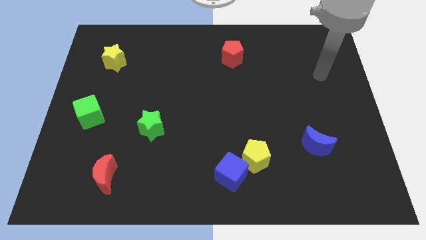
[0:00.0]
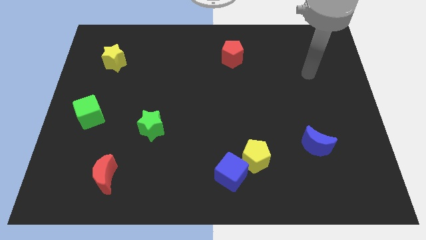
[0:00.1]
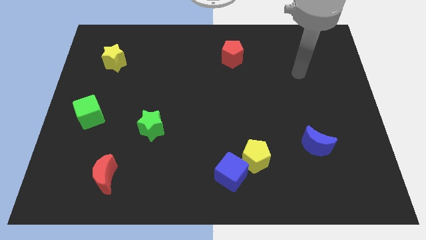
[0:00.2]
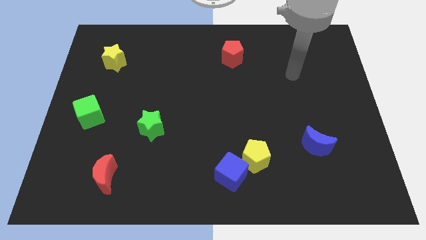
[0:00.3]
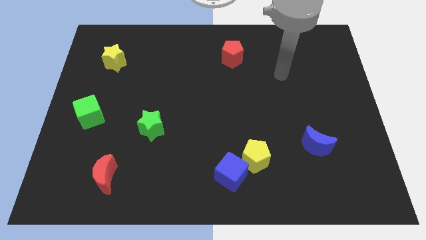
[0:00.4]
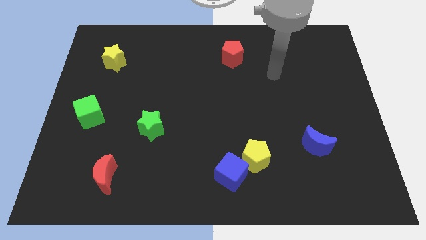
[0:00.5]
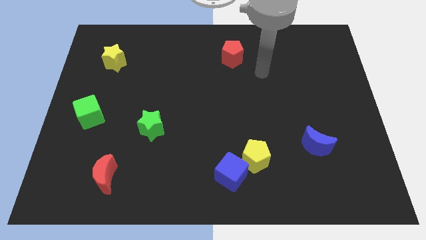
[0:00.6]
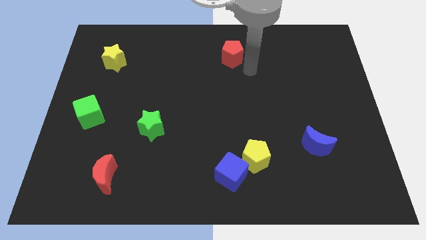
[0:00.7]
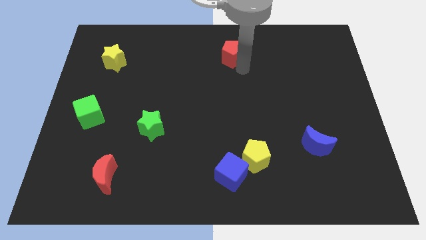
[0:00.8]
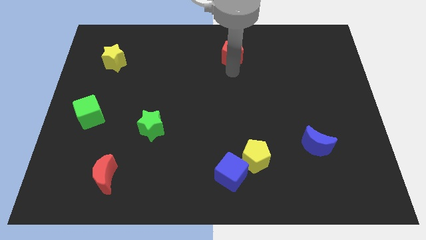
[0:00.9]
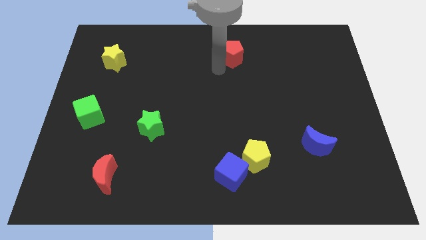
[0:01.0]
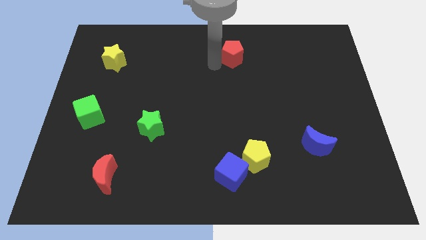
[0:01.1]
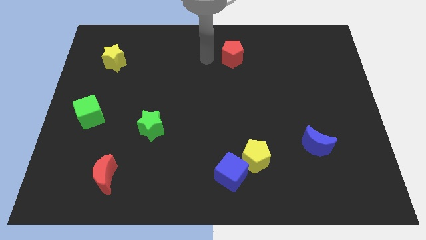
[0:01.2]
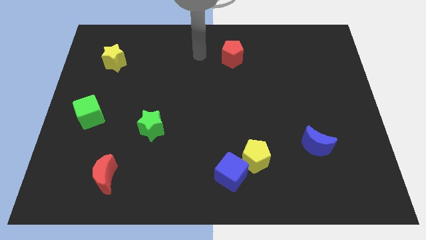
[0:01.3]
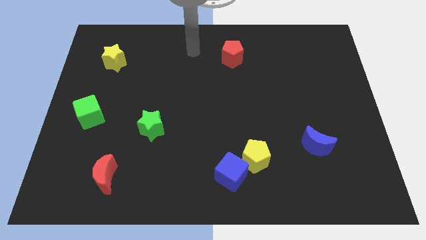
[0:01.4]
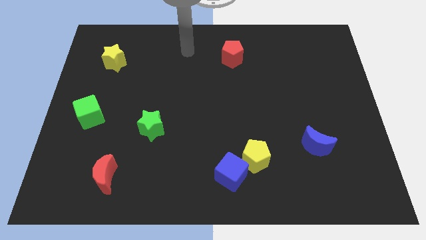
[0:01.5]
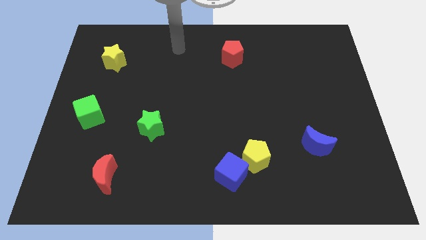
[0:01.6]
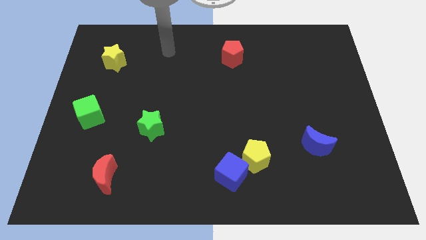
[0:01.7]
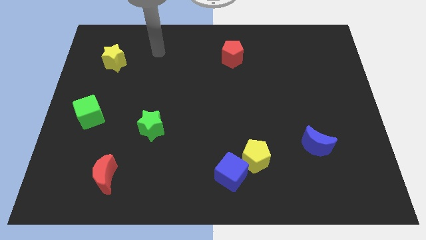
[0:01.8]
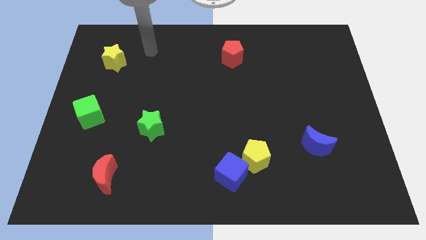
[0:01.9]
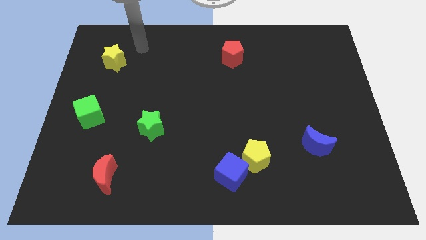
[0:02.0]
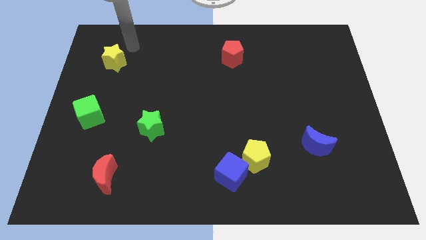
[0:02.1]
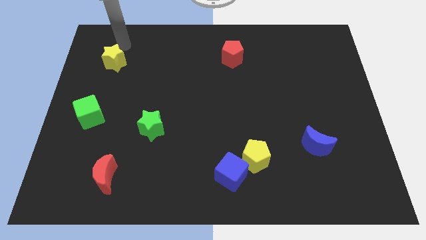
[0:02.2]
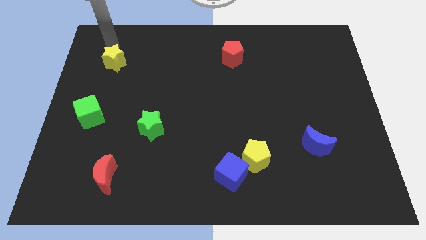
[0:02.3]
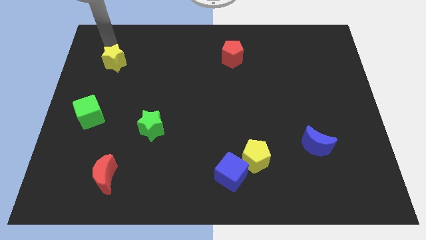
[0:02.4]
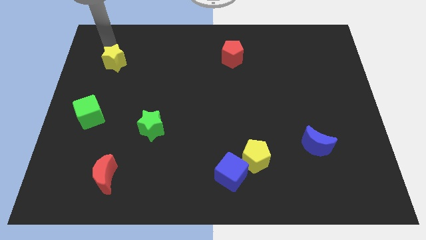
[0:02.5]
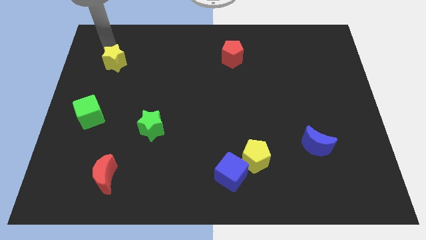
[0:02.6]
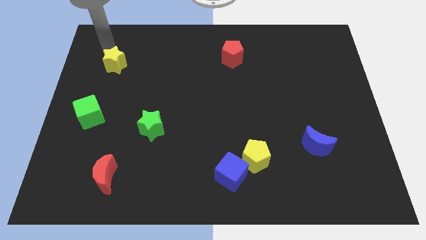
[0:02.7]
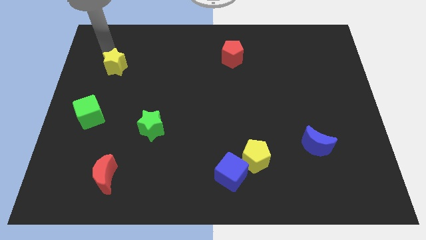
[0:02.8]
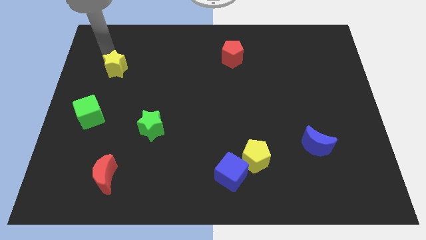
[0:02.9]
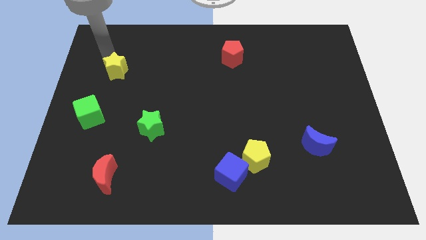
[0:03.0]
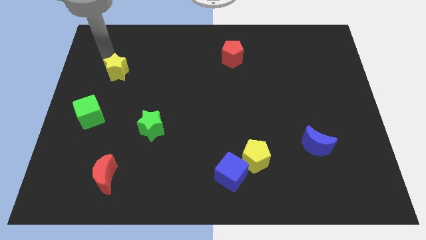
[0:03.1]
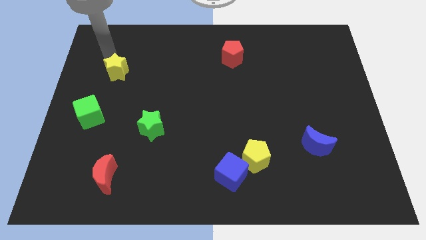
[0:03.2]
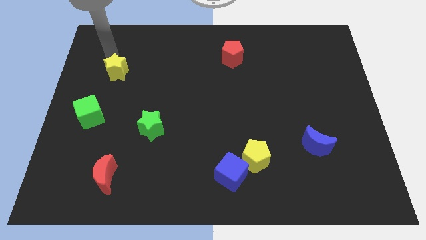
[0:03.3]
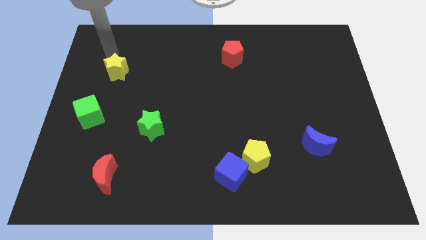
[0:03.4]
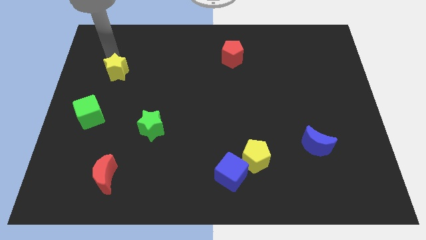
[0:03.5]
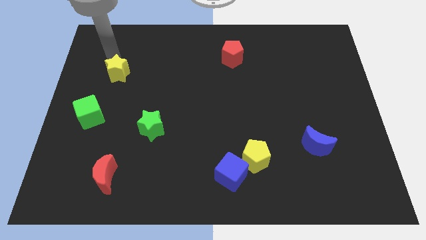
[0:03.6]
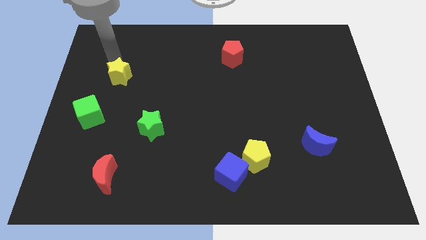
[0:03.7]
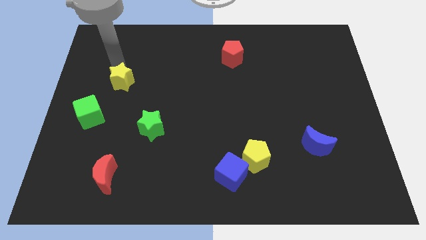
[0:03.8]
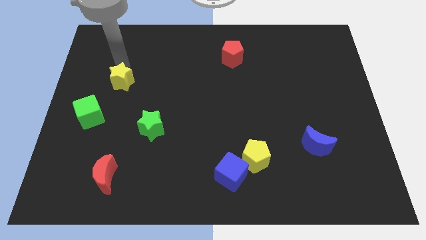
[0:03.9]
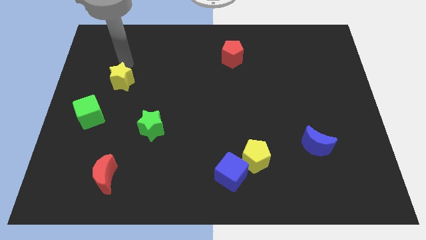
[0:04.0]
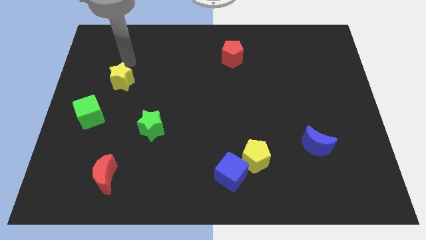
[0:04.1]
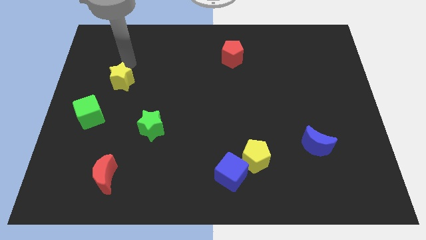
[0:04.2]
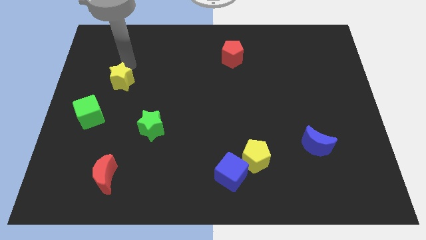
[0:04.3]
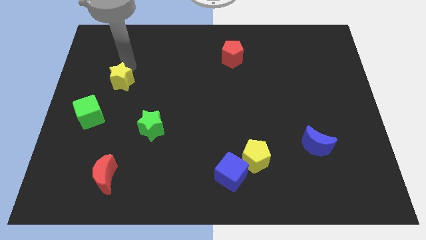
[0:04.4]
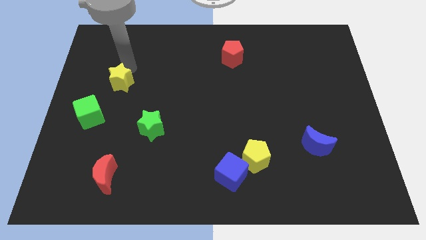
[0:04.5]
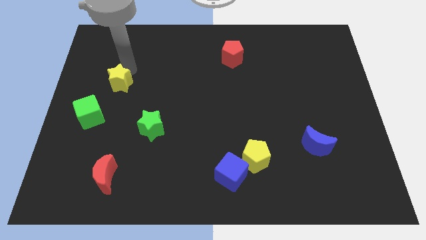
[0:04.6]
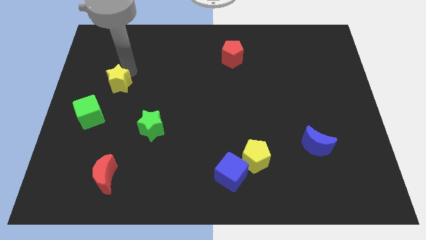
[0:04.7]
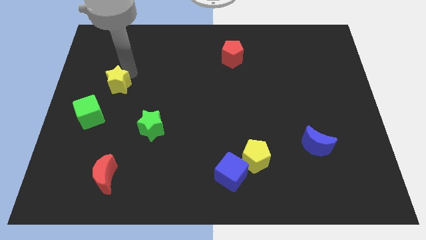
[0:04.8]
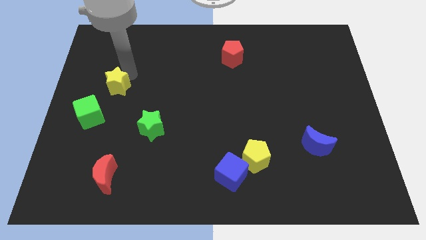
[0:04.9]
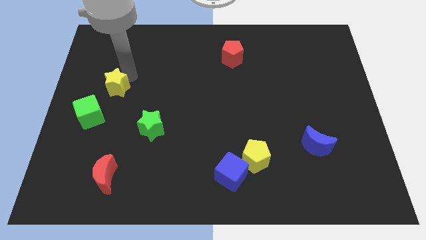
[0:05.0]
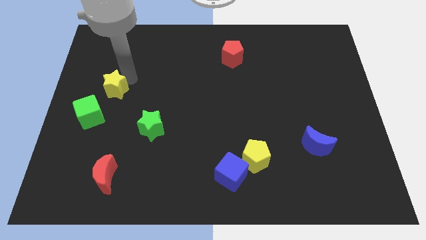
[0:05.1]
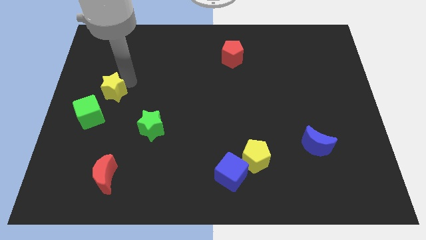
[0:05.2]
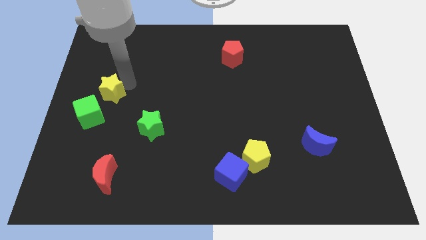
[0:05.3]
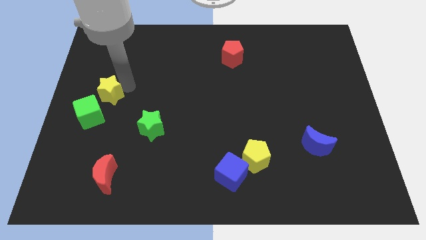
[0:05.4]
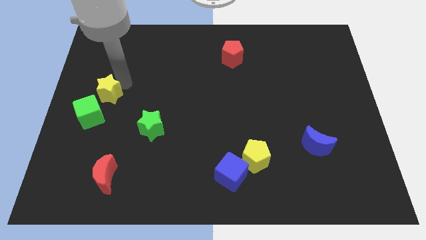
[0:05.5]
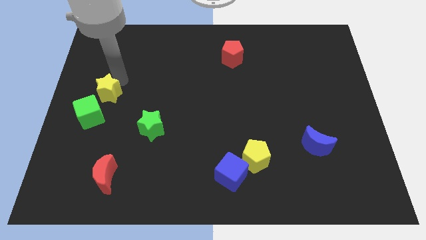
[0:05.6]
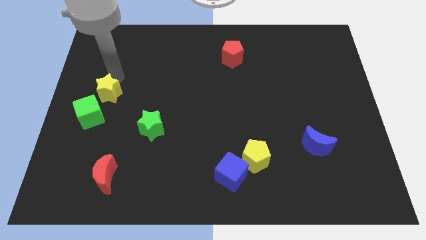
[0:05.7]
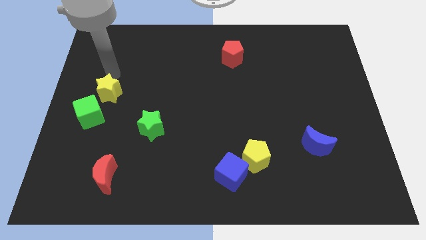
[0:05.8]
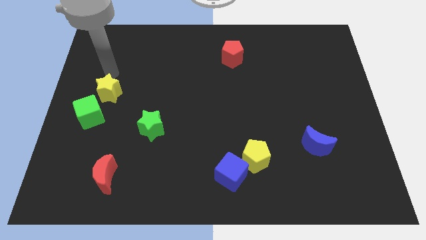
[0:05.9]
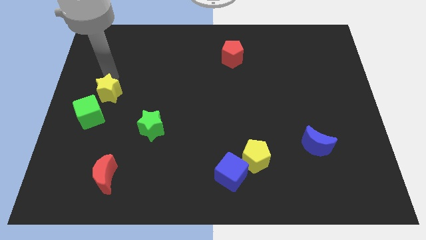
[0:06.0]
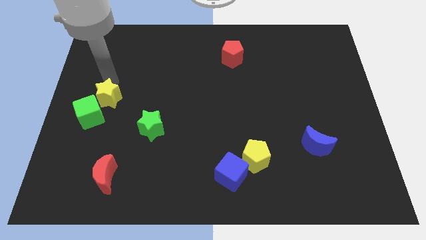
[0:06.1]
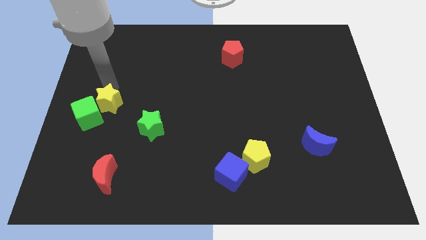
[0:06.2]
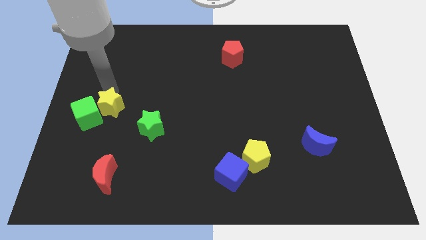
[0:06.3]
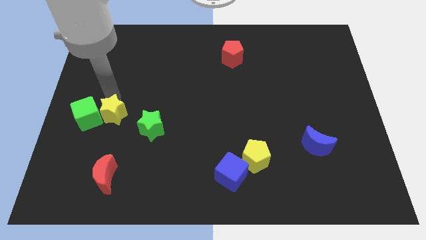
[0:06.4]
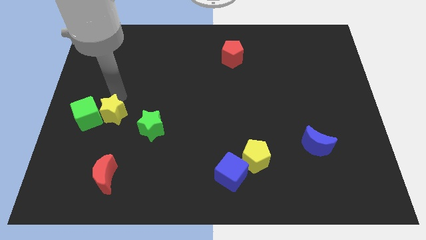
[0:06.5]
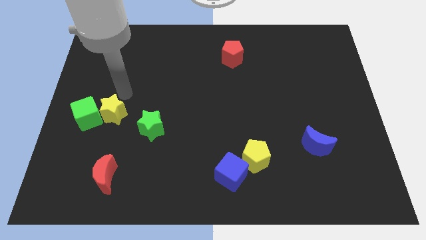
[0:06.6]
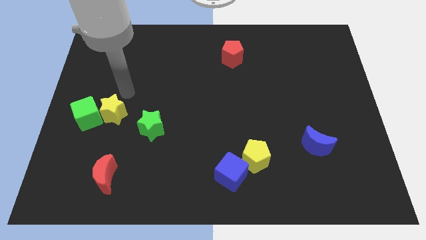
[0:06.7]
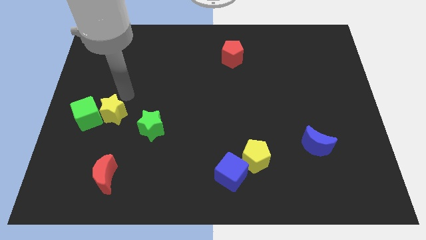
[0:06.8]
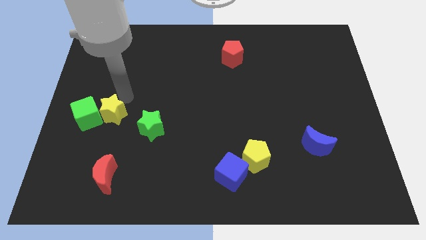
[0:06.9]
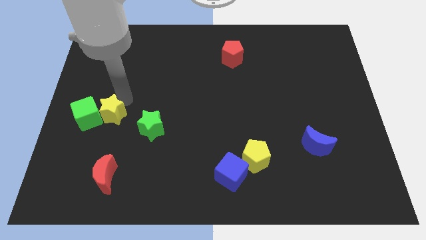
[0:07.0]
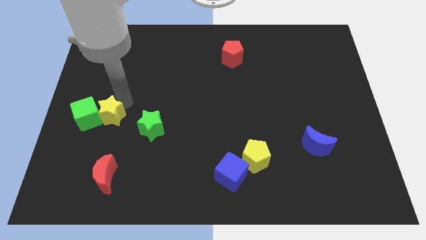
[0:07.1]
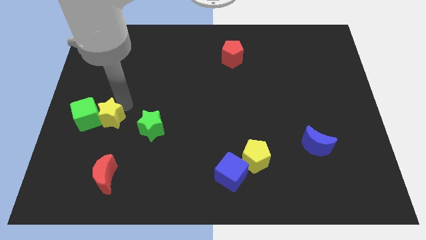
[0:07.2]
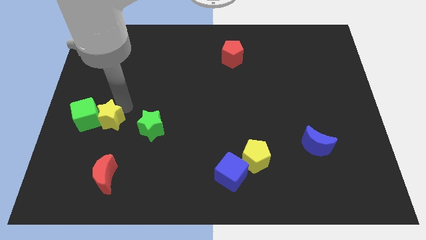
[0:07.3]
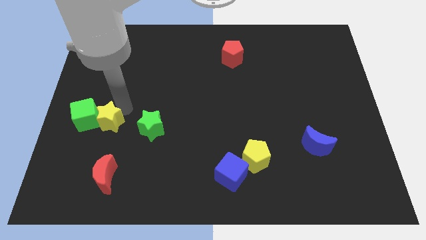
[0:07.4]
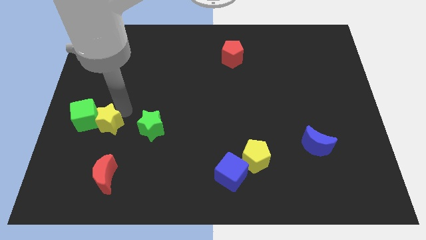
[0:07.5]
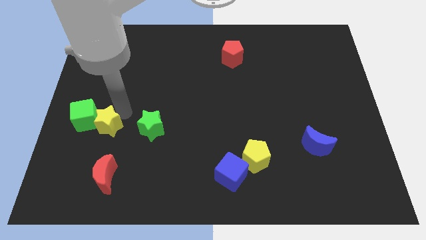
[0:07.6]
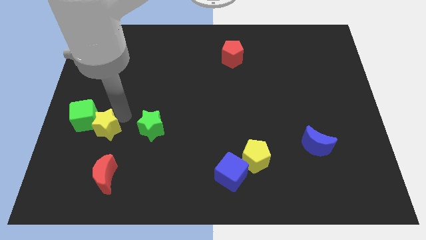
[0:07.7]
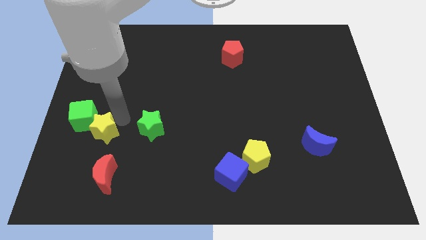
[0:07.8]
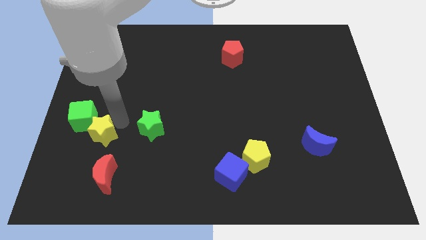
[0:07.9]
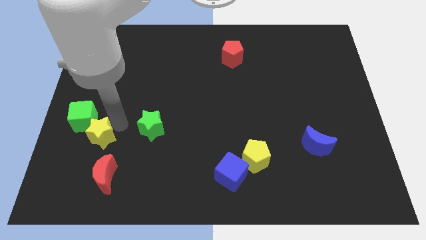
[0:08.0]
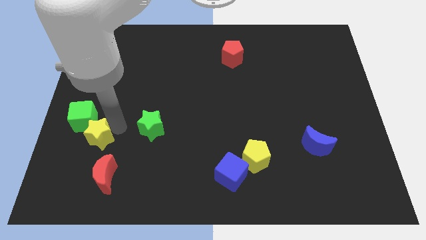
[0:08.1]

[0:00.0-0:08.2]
push the yellow star diagonally up and to the left of the red moon
